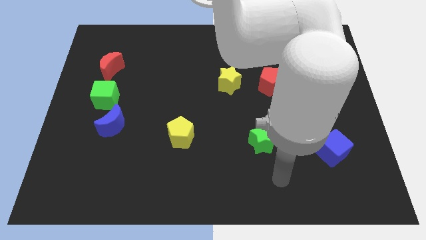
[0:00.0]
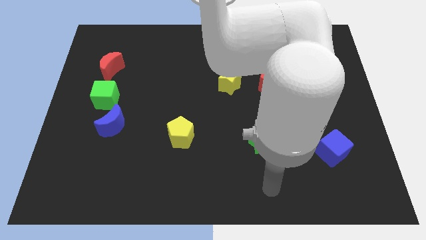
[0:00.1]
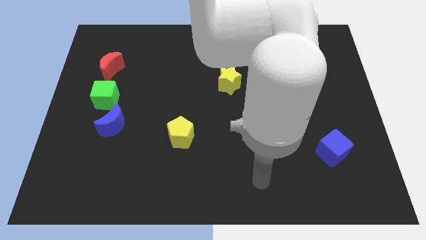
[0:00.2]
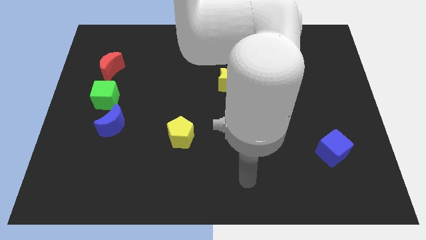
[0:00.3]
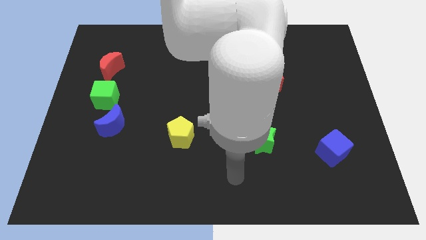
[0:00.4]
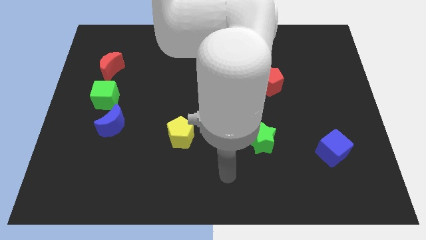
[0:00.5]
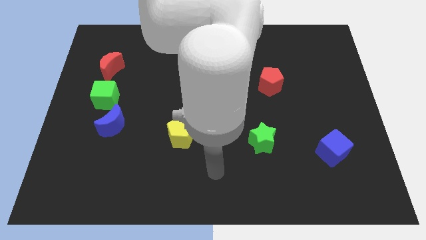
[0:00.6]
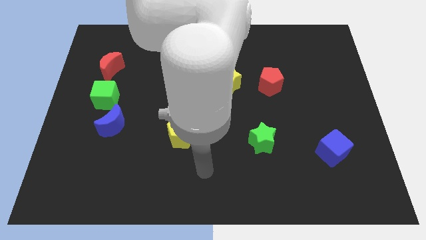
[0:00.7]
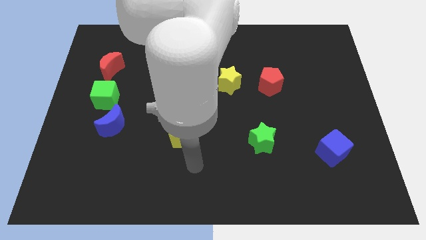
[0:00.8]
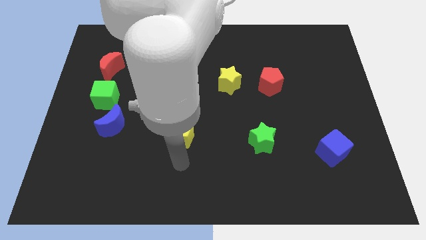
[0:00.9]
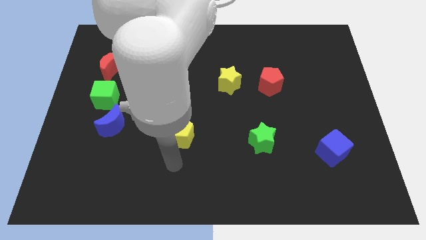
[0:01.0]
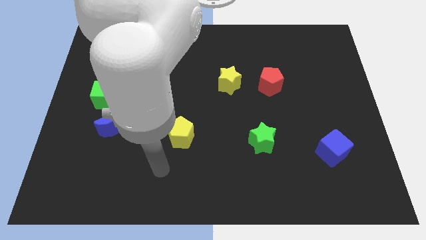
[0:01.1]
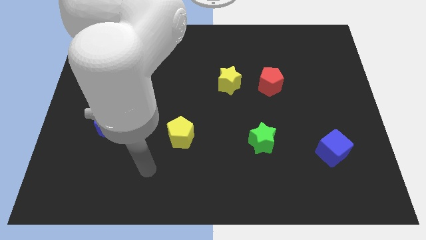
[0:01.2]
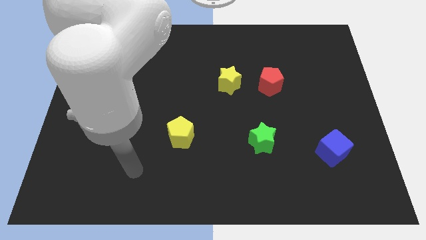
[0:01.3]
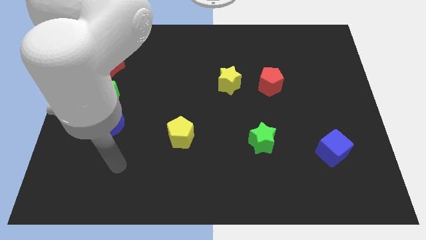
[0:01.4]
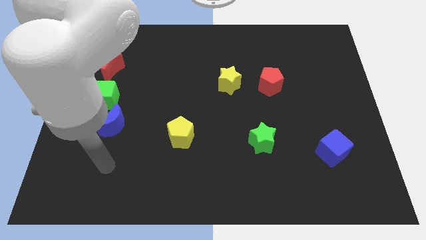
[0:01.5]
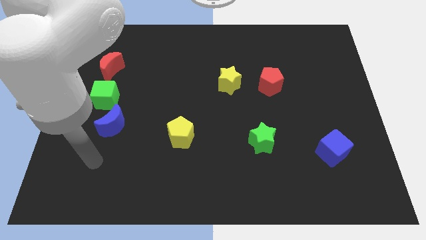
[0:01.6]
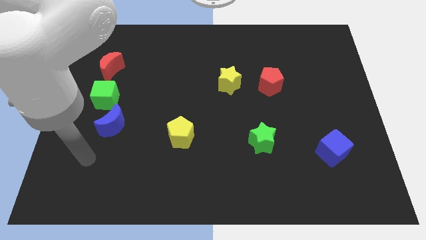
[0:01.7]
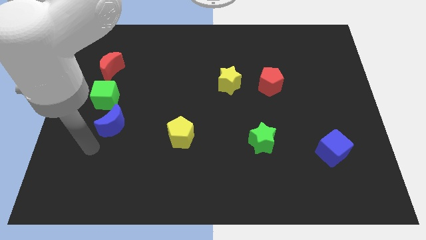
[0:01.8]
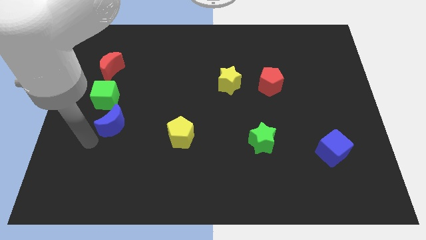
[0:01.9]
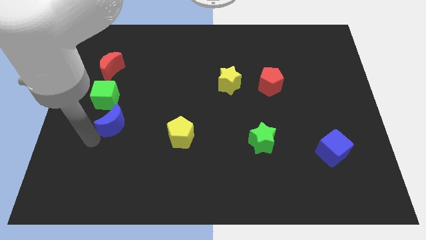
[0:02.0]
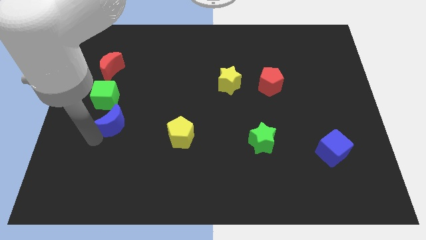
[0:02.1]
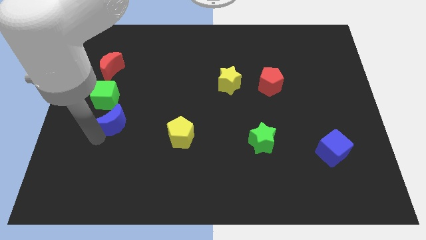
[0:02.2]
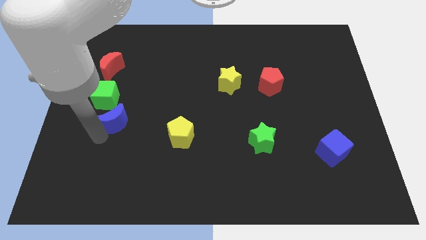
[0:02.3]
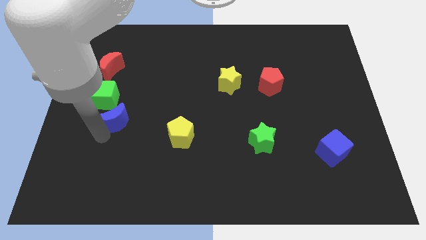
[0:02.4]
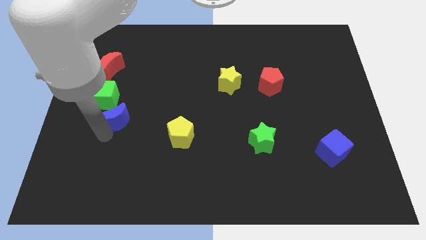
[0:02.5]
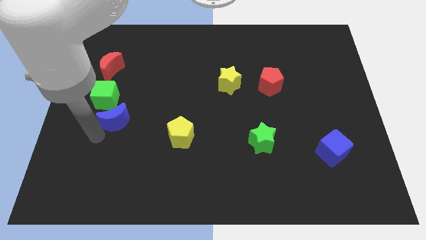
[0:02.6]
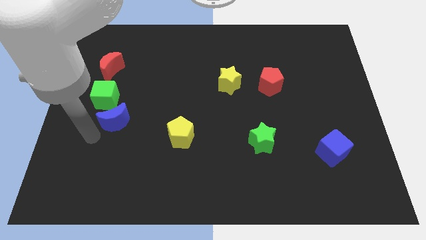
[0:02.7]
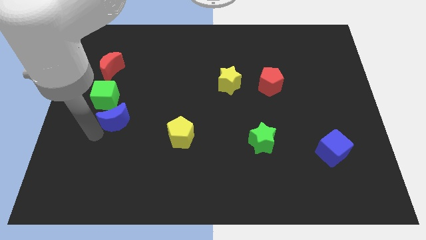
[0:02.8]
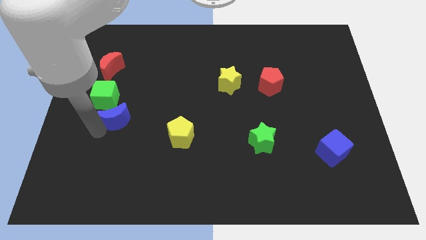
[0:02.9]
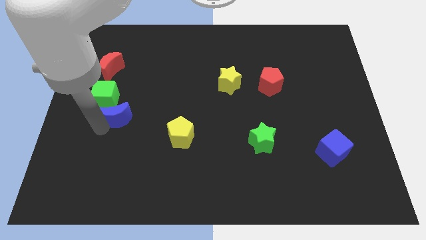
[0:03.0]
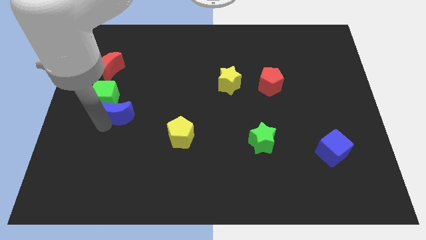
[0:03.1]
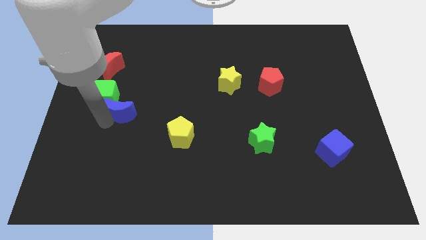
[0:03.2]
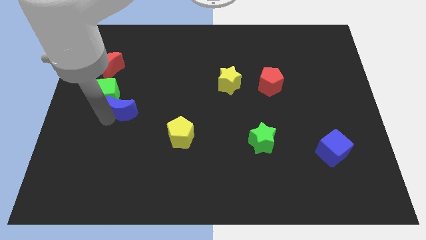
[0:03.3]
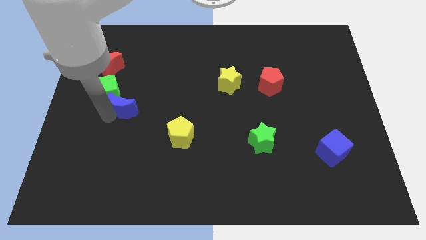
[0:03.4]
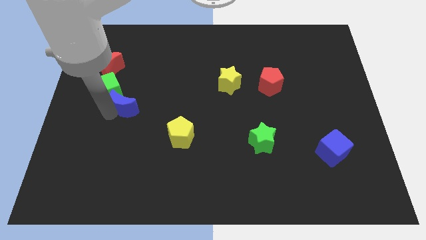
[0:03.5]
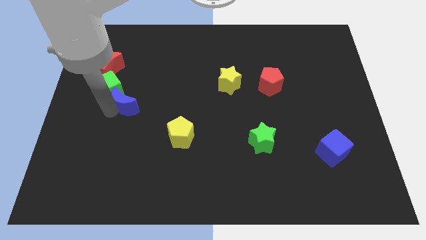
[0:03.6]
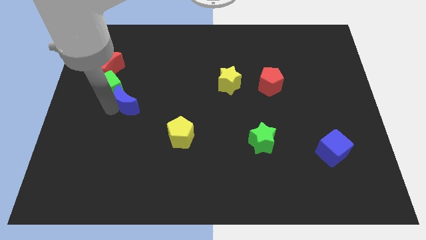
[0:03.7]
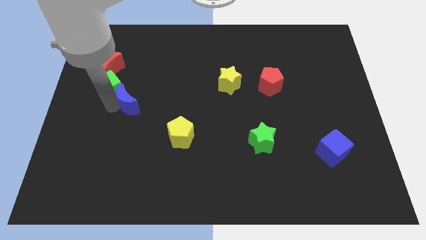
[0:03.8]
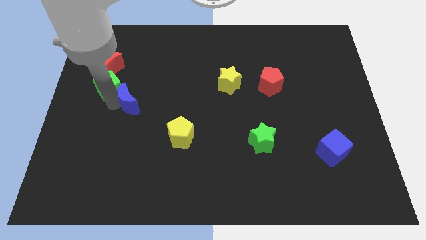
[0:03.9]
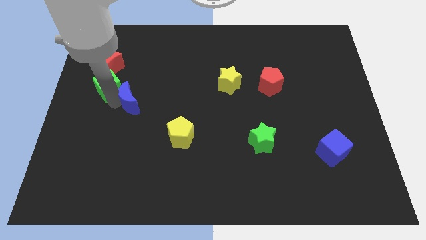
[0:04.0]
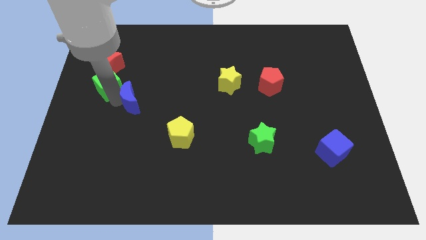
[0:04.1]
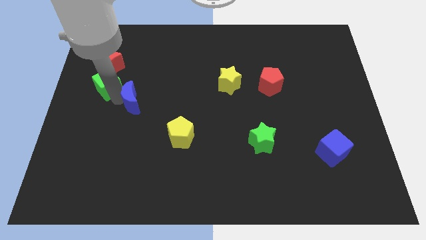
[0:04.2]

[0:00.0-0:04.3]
slightly slide the blue moon diagonally upwards and to the right

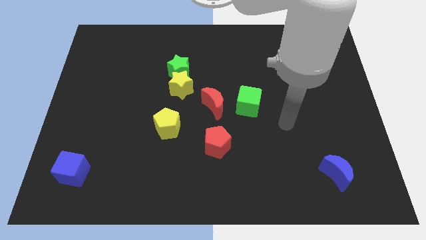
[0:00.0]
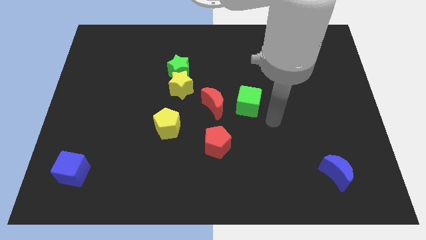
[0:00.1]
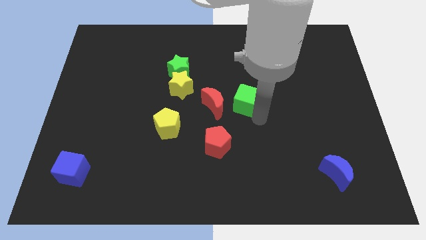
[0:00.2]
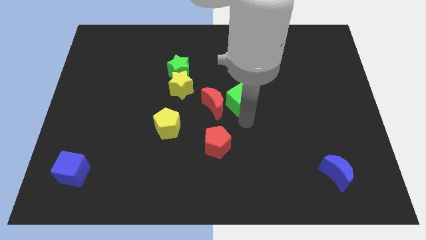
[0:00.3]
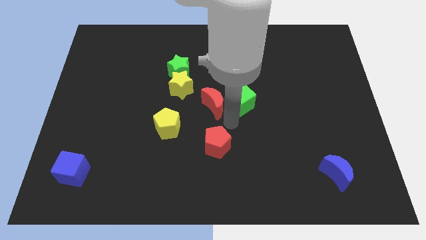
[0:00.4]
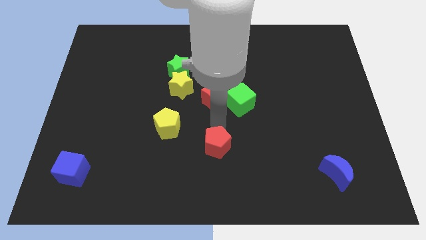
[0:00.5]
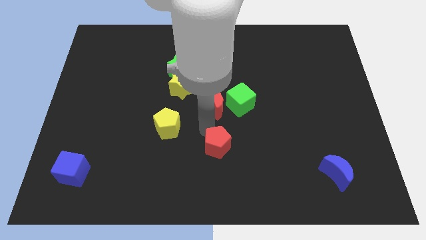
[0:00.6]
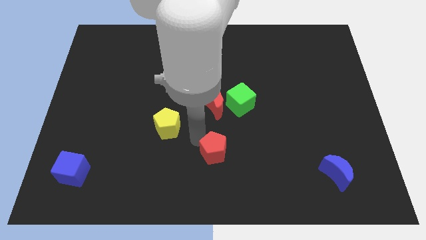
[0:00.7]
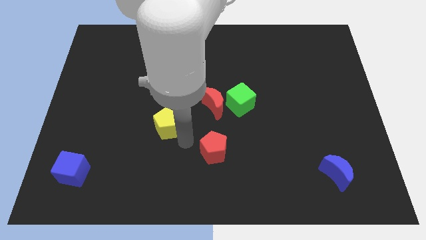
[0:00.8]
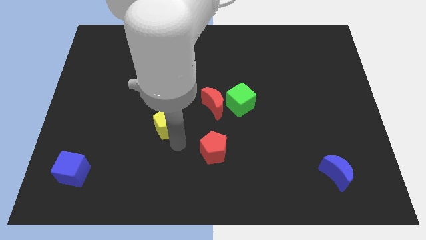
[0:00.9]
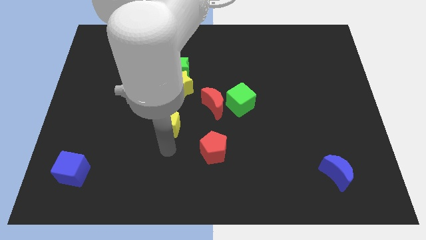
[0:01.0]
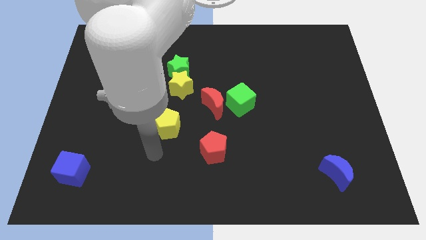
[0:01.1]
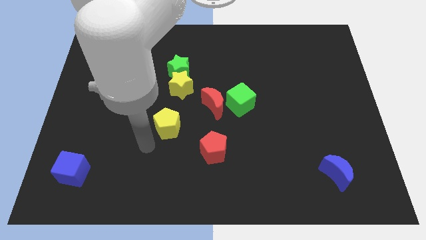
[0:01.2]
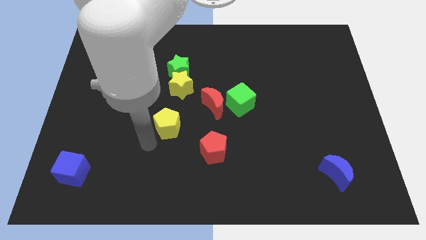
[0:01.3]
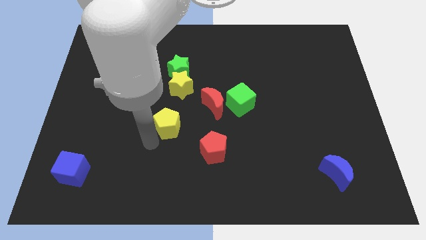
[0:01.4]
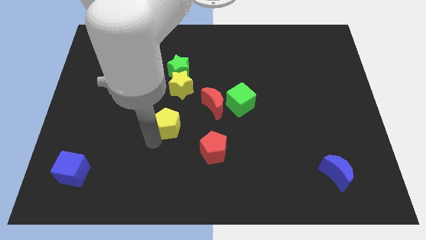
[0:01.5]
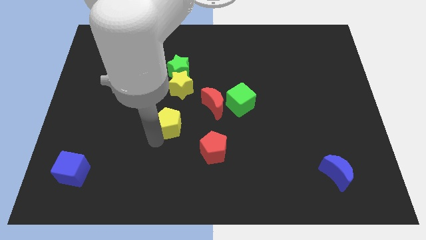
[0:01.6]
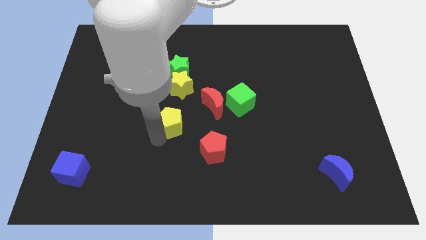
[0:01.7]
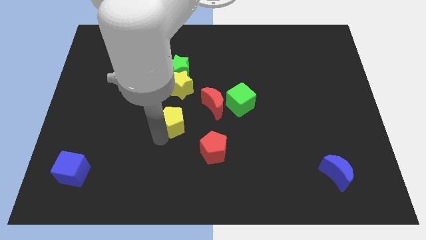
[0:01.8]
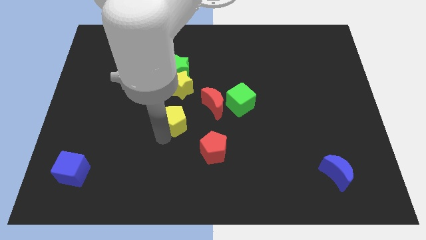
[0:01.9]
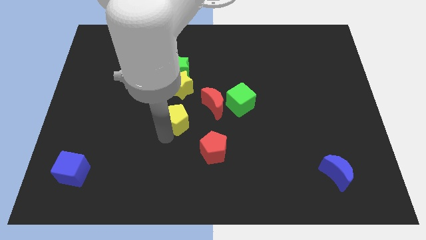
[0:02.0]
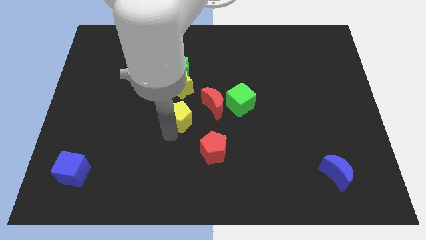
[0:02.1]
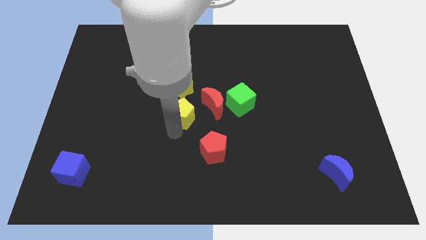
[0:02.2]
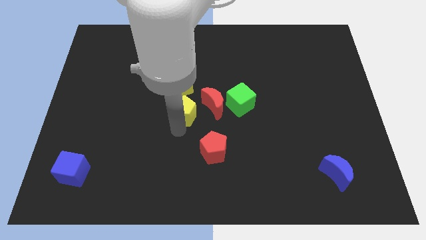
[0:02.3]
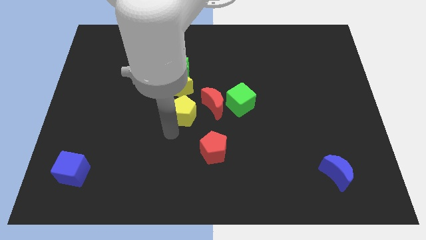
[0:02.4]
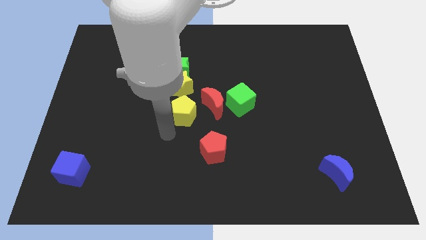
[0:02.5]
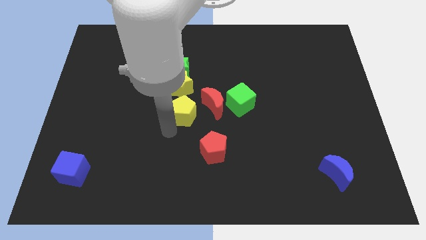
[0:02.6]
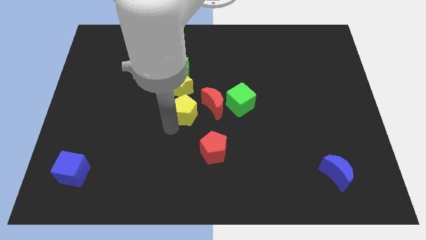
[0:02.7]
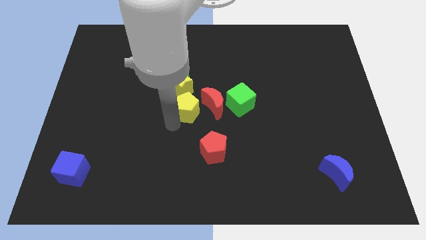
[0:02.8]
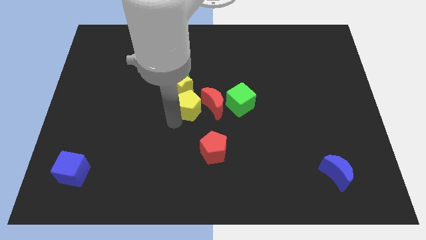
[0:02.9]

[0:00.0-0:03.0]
slightly slide the yellow pentagon up and to the right

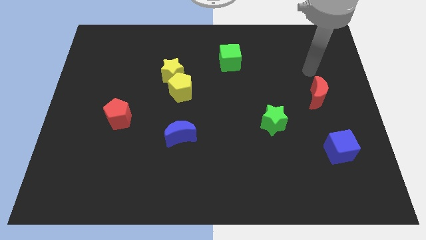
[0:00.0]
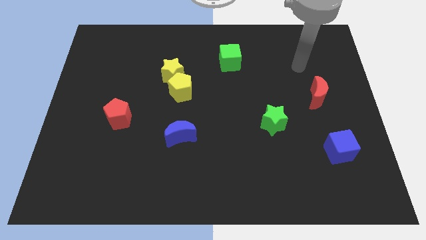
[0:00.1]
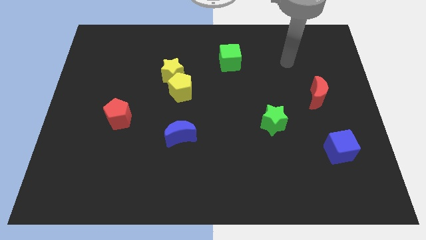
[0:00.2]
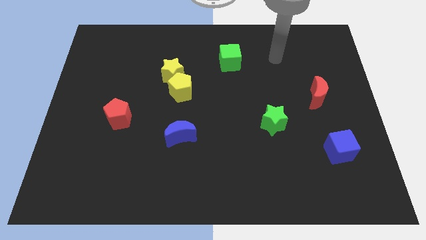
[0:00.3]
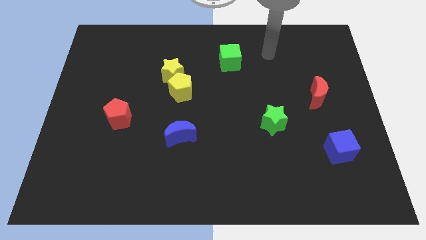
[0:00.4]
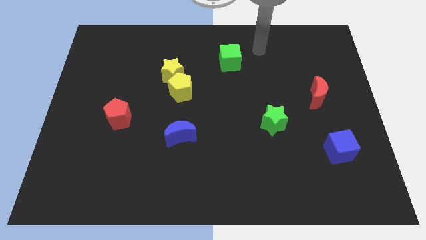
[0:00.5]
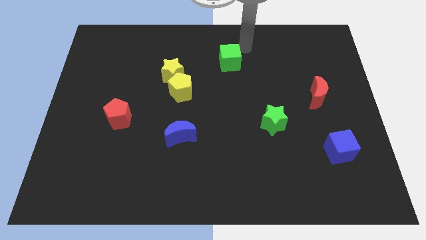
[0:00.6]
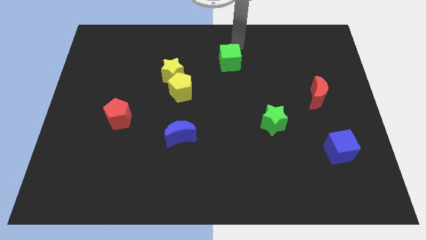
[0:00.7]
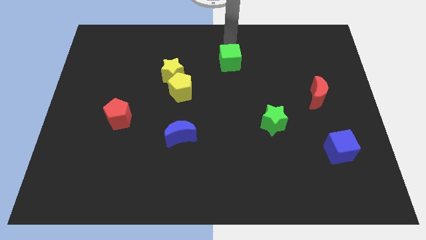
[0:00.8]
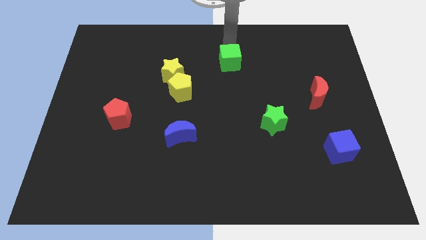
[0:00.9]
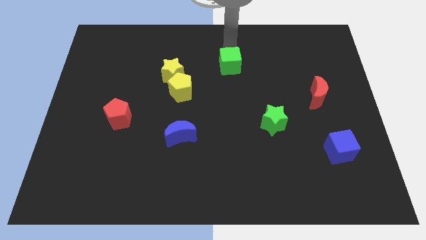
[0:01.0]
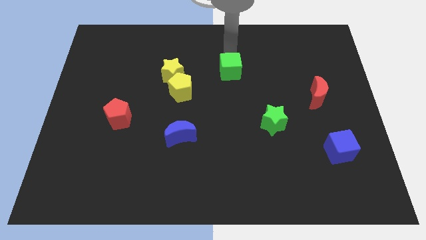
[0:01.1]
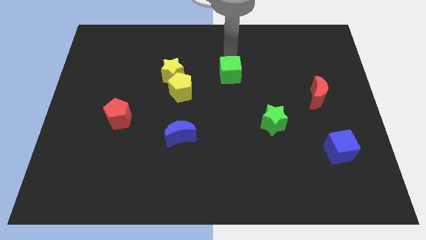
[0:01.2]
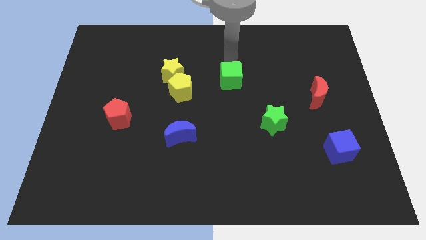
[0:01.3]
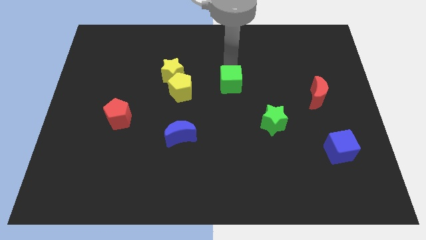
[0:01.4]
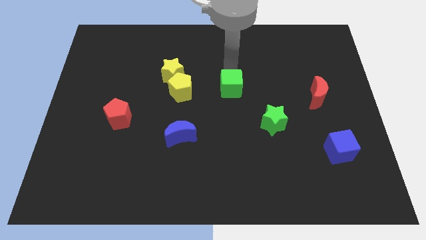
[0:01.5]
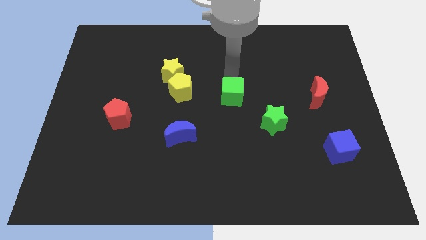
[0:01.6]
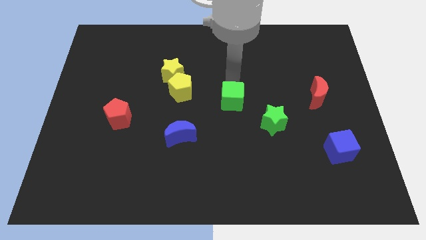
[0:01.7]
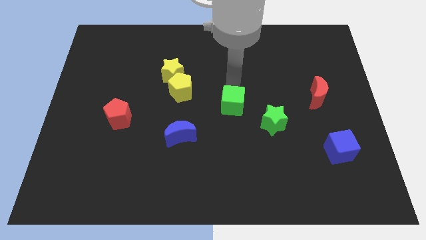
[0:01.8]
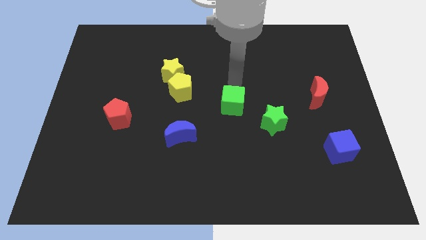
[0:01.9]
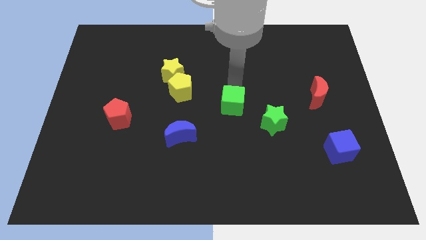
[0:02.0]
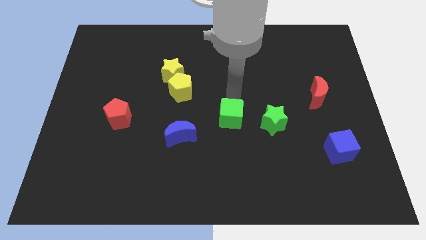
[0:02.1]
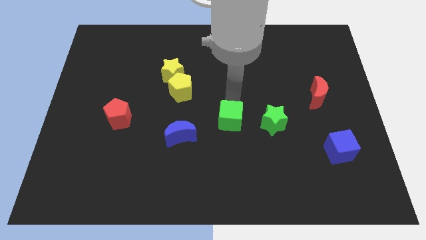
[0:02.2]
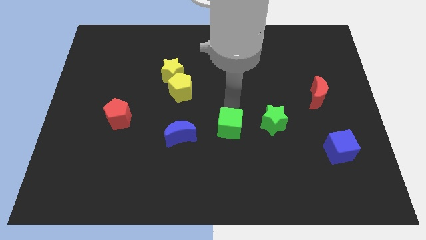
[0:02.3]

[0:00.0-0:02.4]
push the green cube downwards
